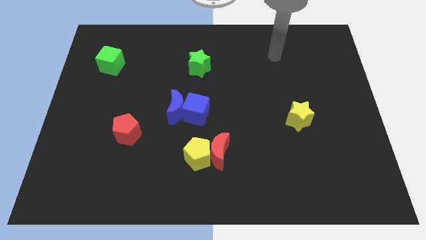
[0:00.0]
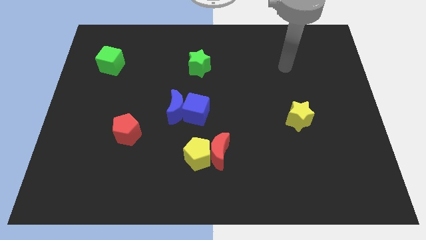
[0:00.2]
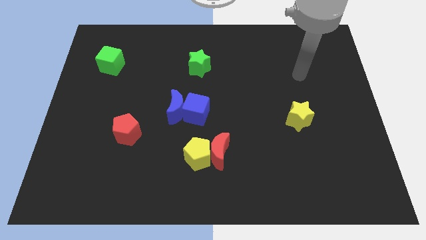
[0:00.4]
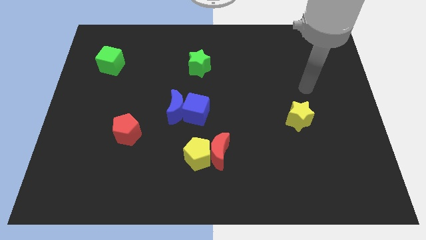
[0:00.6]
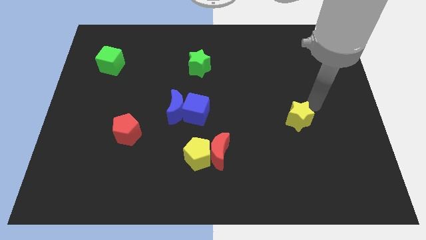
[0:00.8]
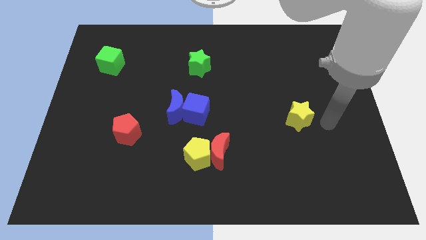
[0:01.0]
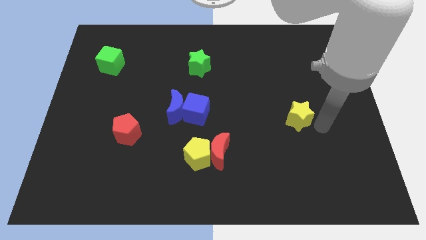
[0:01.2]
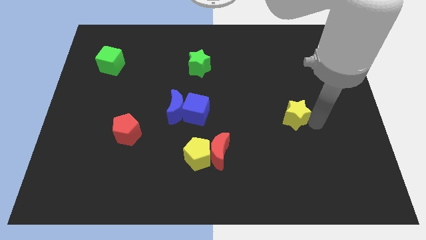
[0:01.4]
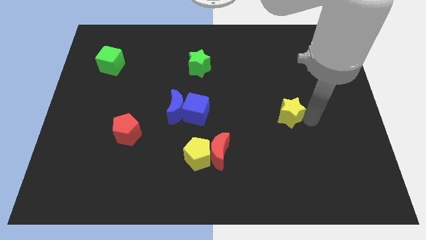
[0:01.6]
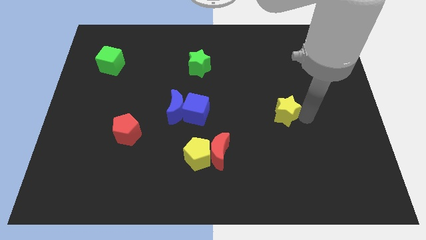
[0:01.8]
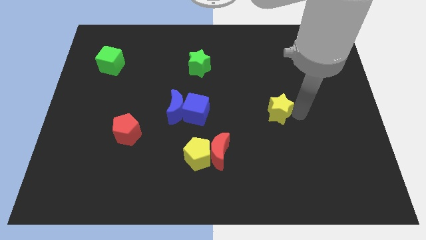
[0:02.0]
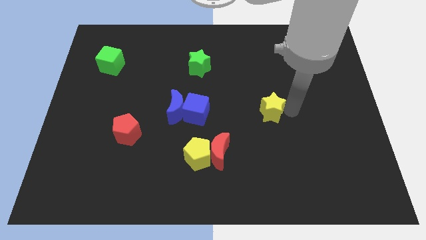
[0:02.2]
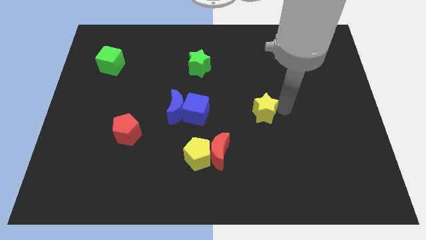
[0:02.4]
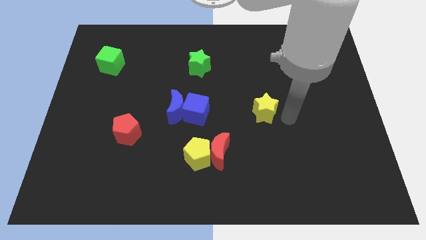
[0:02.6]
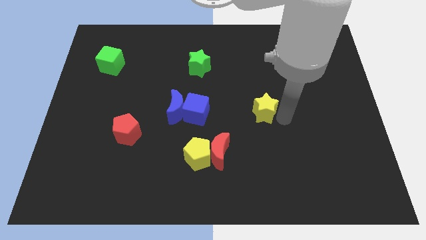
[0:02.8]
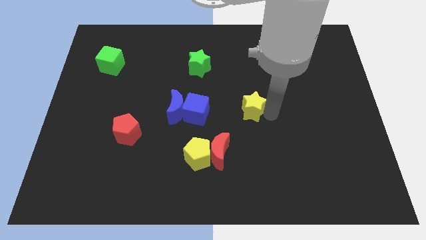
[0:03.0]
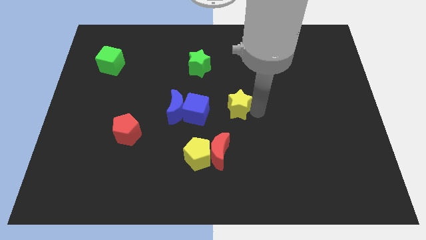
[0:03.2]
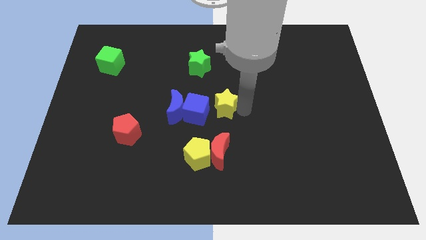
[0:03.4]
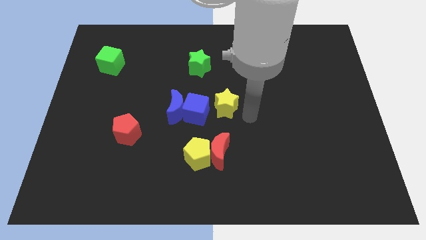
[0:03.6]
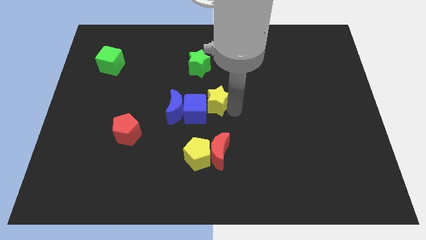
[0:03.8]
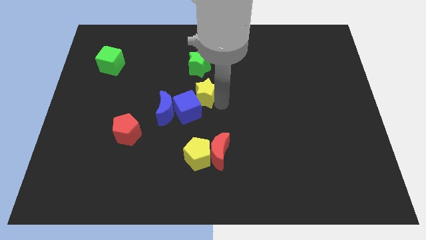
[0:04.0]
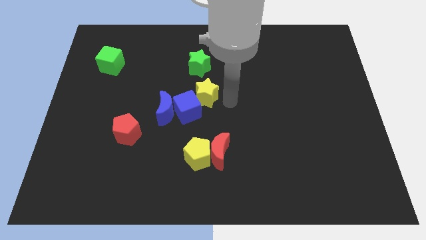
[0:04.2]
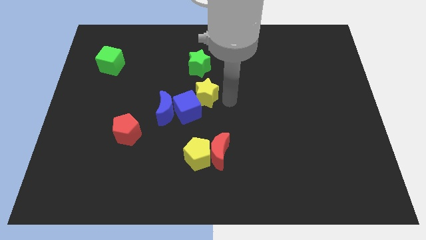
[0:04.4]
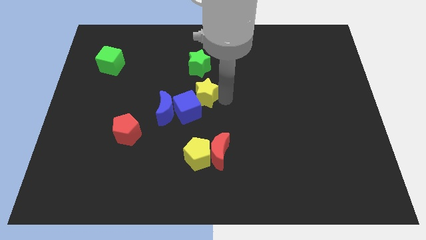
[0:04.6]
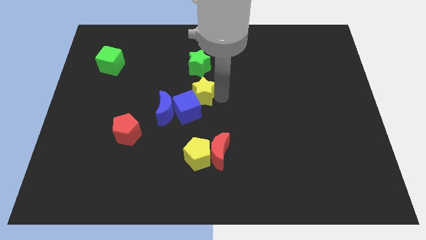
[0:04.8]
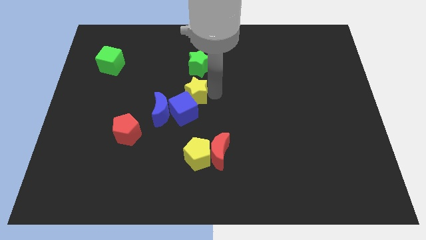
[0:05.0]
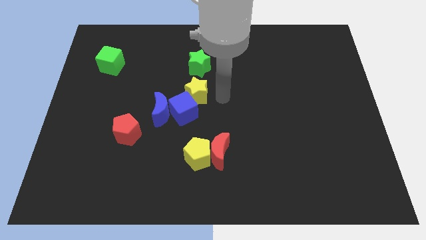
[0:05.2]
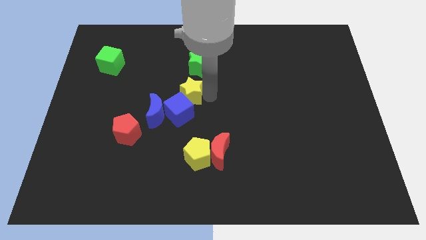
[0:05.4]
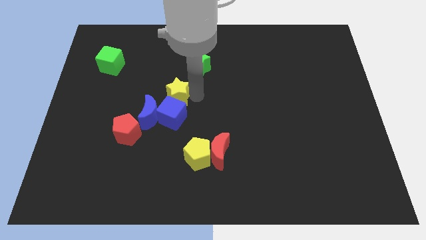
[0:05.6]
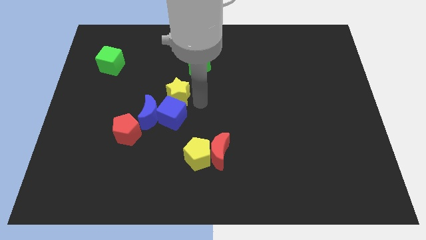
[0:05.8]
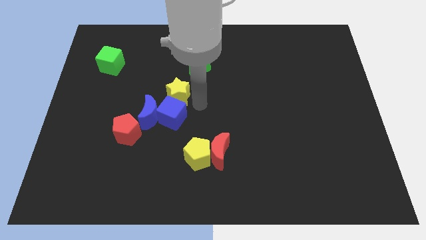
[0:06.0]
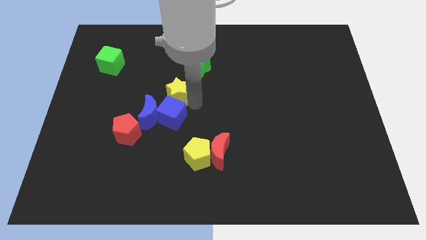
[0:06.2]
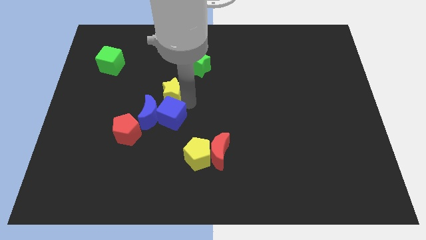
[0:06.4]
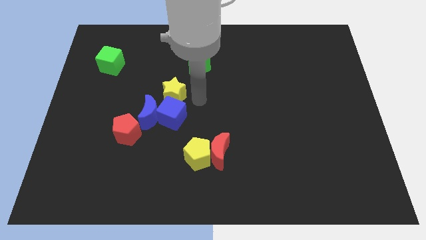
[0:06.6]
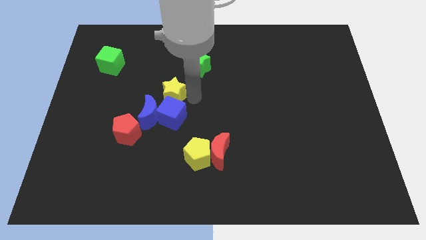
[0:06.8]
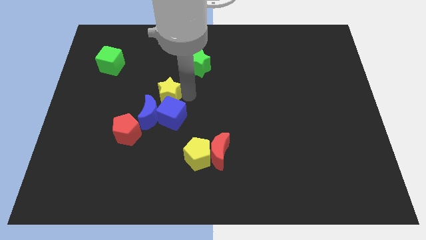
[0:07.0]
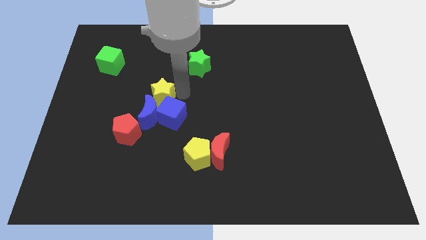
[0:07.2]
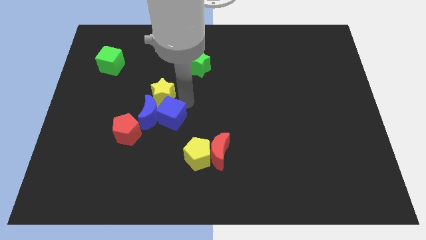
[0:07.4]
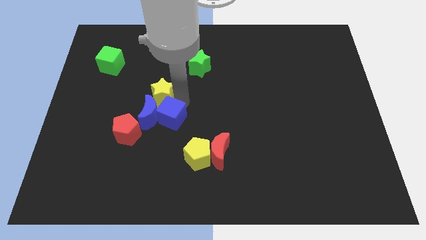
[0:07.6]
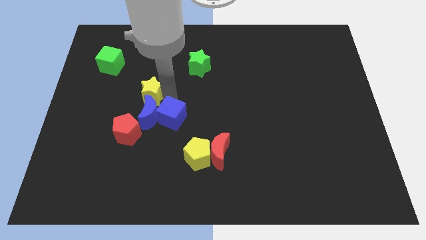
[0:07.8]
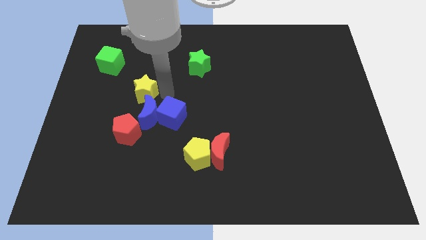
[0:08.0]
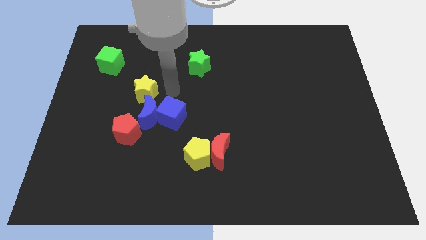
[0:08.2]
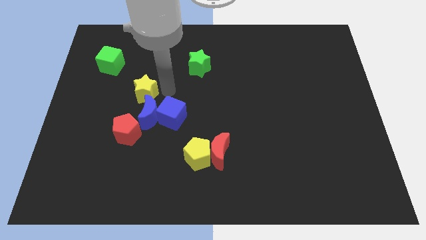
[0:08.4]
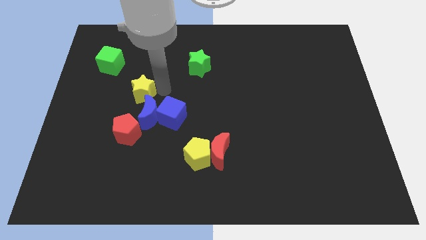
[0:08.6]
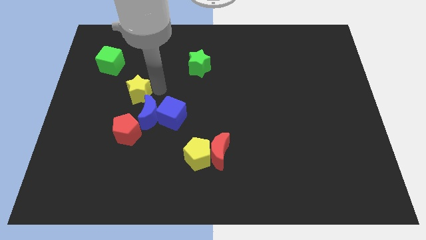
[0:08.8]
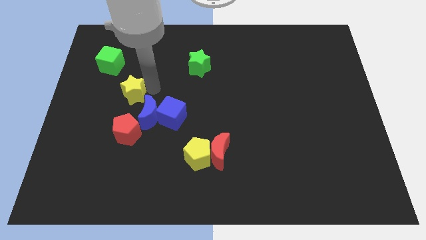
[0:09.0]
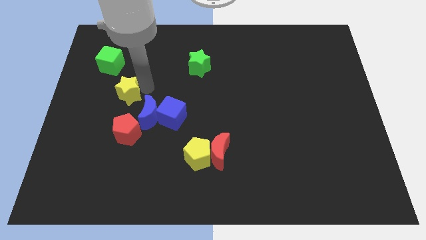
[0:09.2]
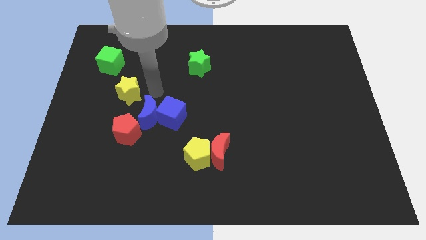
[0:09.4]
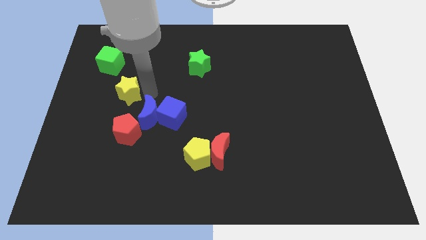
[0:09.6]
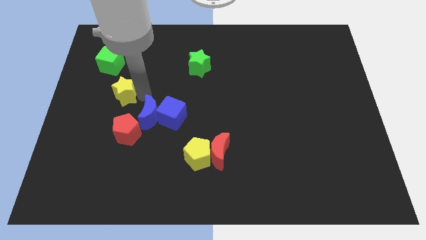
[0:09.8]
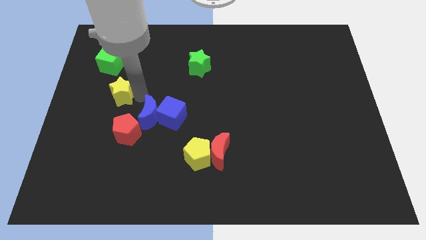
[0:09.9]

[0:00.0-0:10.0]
push the yellow star below the green cube

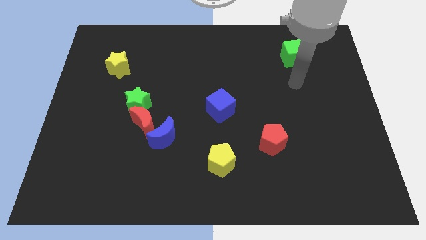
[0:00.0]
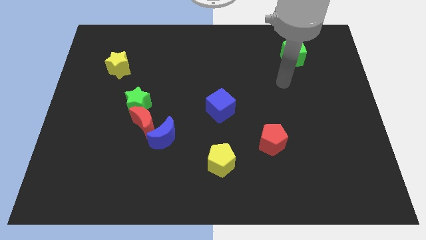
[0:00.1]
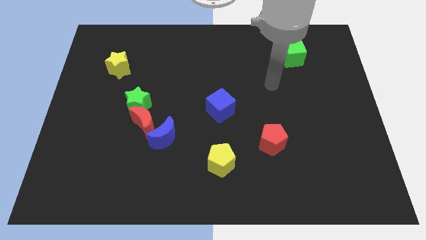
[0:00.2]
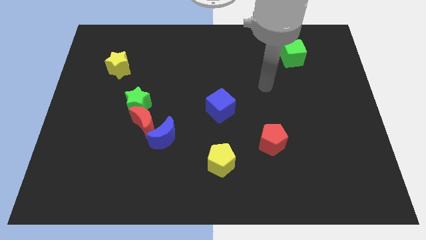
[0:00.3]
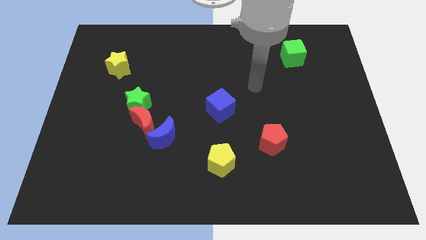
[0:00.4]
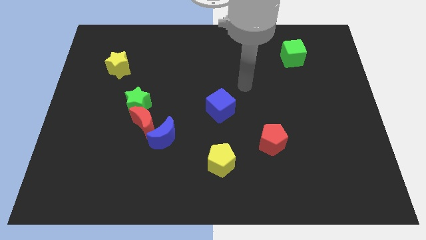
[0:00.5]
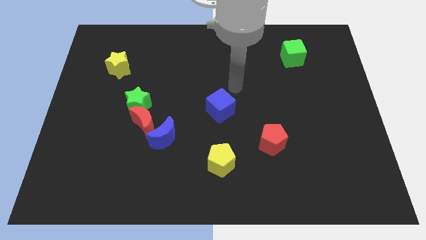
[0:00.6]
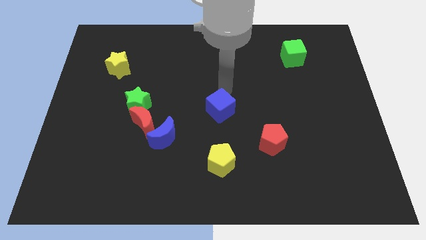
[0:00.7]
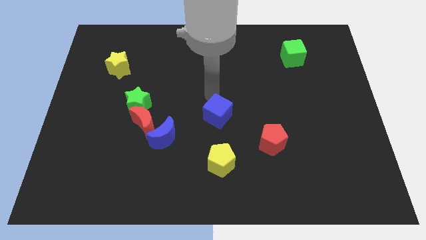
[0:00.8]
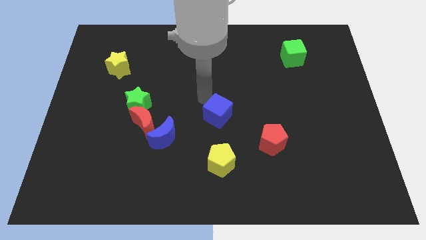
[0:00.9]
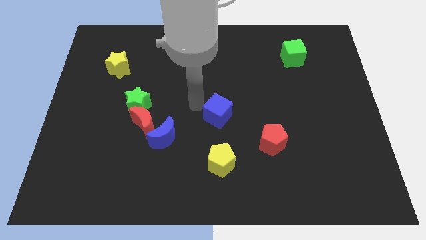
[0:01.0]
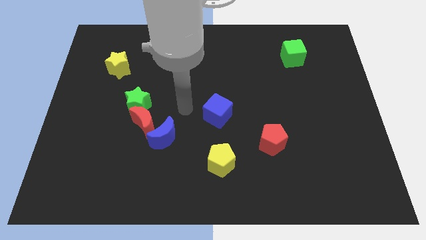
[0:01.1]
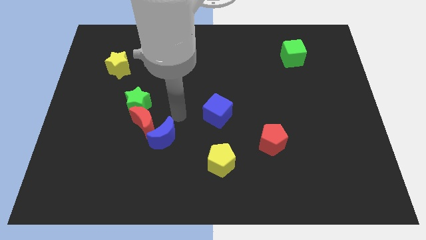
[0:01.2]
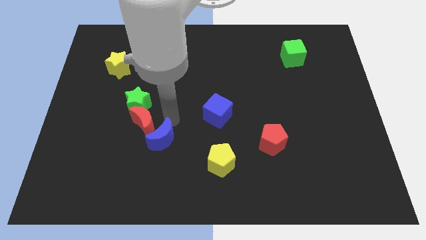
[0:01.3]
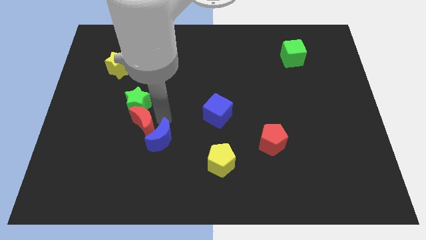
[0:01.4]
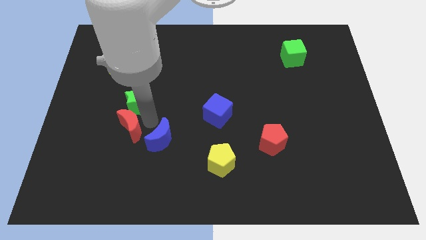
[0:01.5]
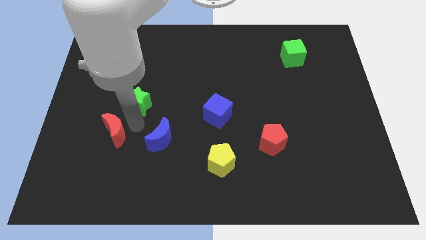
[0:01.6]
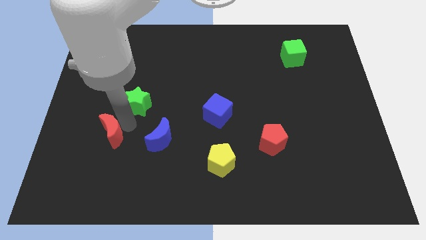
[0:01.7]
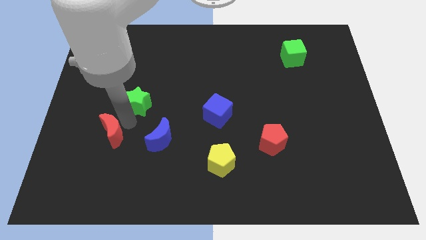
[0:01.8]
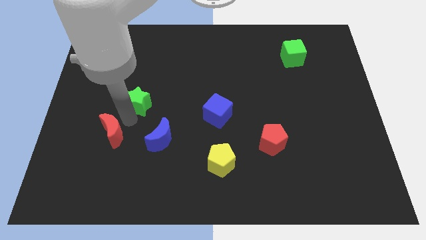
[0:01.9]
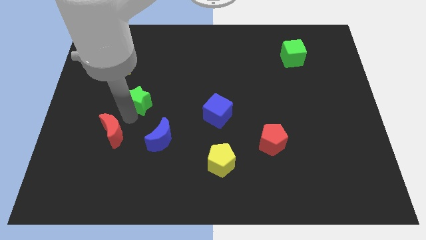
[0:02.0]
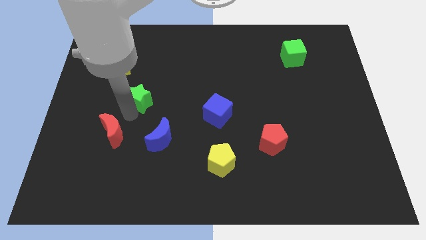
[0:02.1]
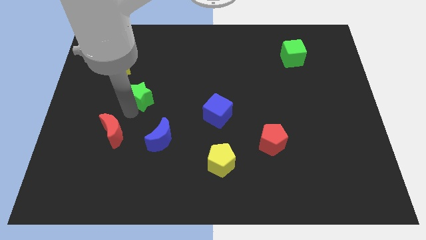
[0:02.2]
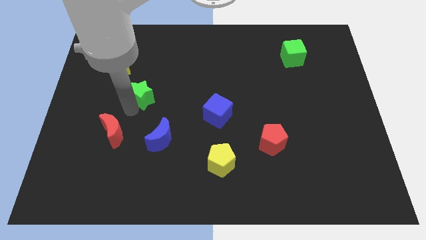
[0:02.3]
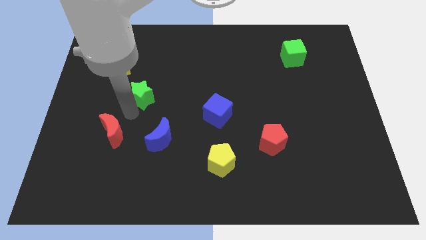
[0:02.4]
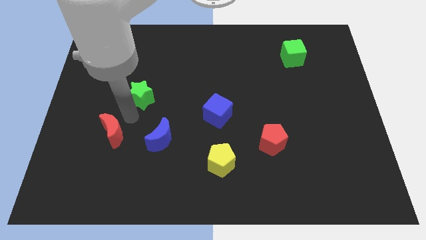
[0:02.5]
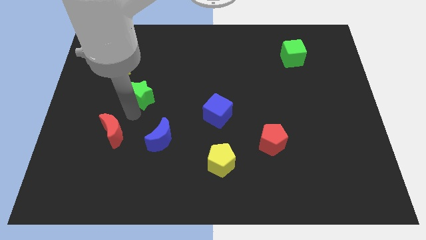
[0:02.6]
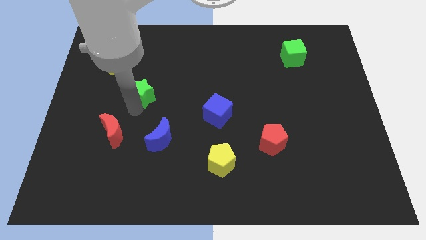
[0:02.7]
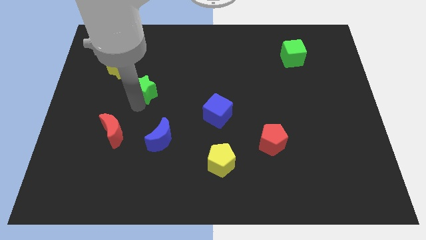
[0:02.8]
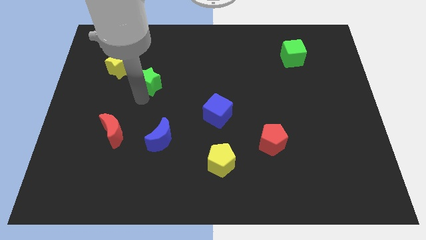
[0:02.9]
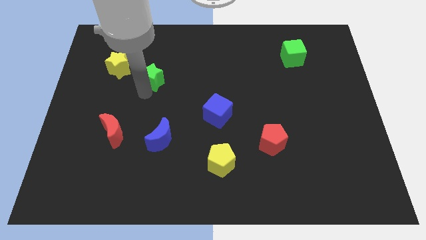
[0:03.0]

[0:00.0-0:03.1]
put the green star just right of the yellow star
